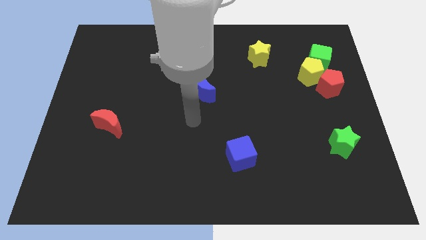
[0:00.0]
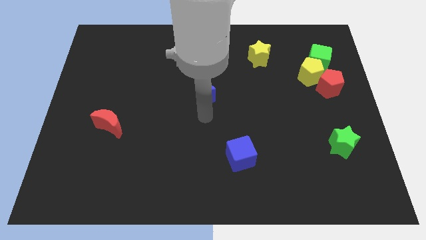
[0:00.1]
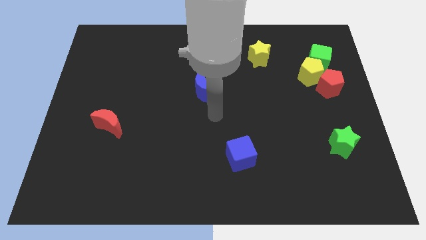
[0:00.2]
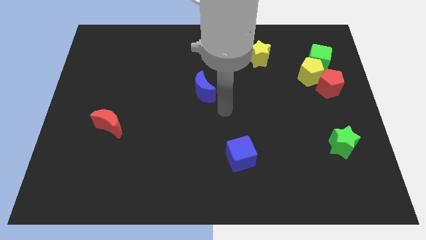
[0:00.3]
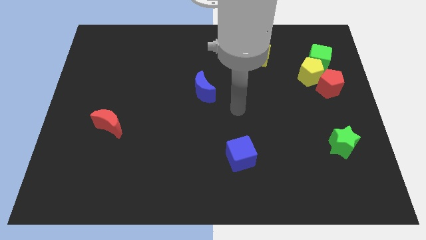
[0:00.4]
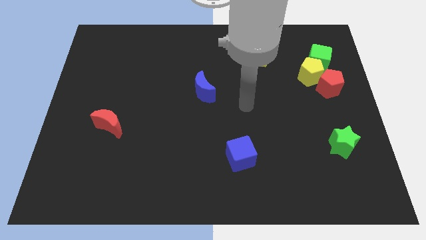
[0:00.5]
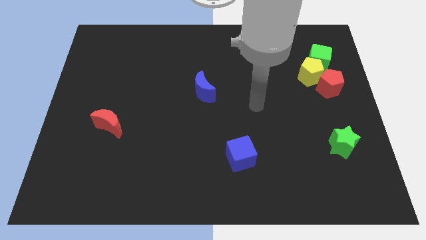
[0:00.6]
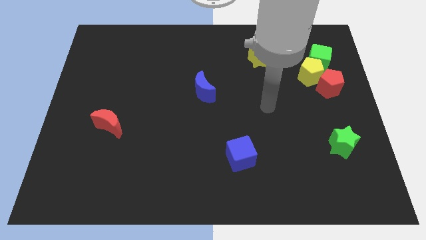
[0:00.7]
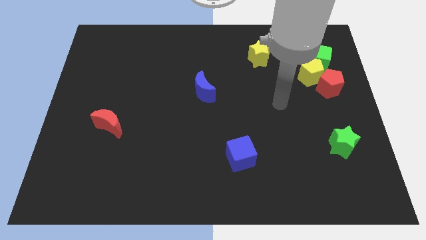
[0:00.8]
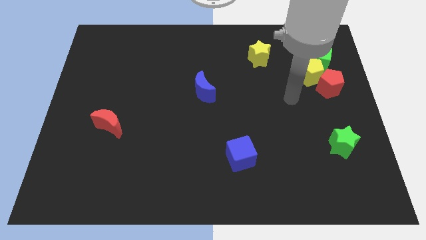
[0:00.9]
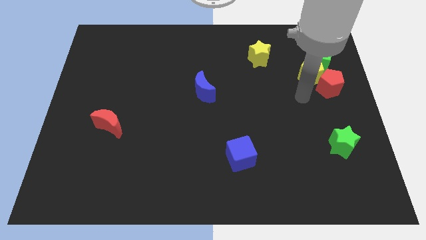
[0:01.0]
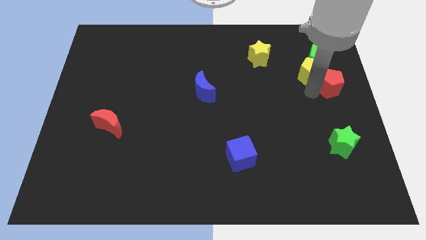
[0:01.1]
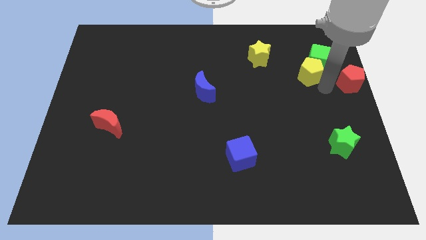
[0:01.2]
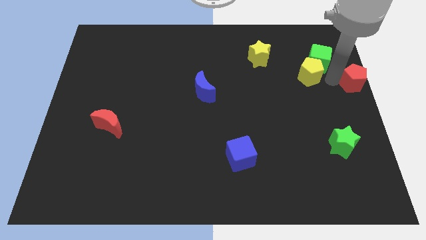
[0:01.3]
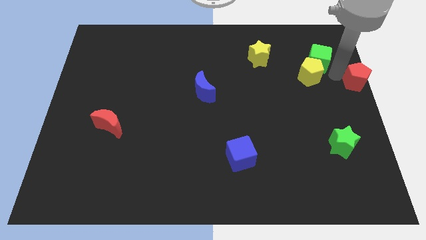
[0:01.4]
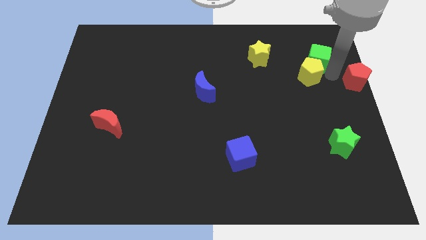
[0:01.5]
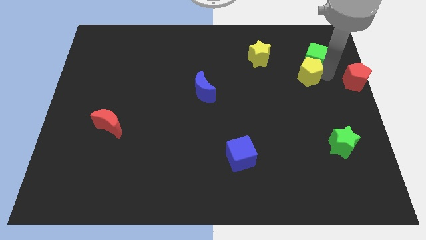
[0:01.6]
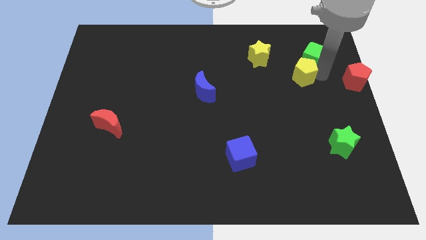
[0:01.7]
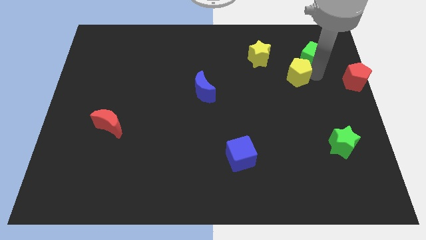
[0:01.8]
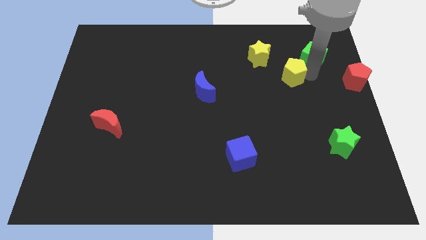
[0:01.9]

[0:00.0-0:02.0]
move the yellow pentagon away from the green cube and red pentagon

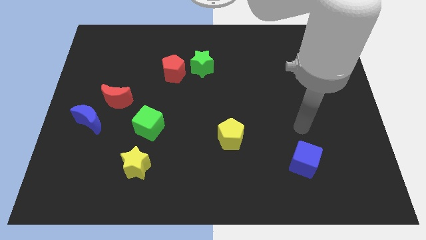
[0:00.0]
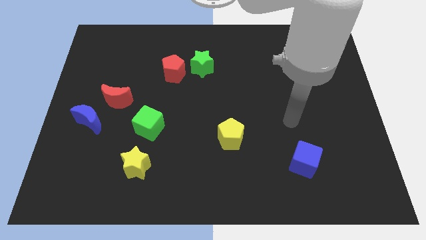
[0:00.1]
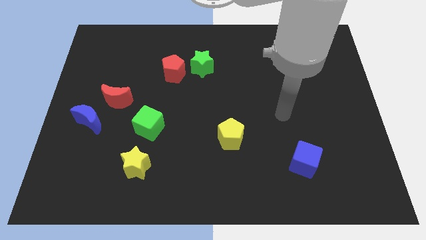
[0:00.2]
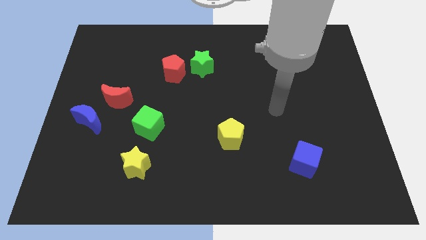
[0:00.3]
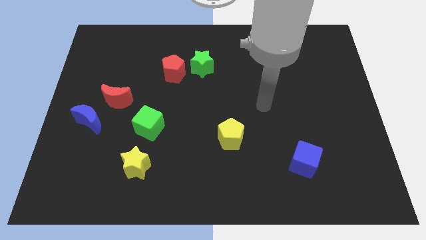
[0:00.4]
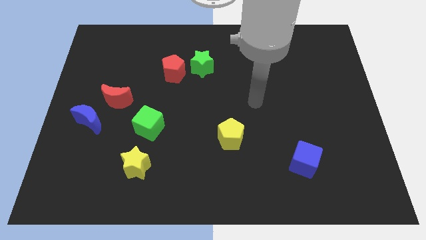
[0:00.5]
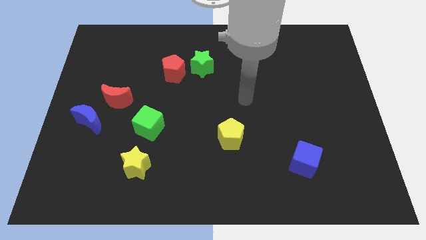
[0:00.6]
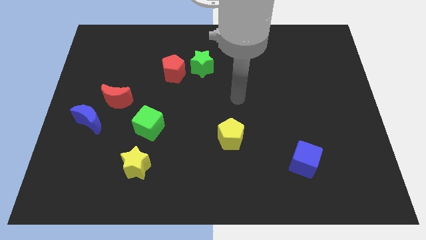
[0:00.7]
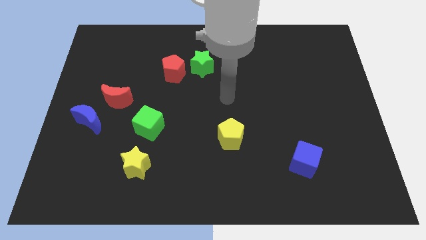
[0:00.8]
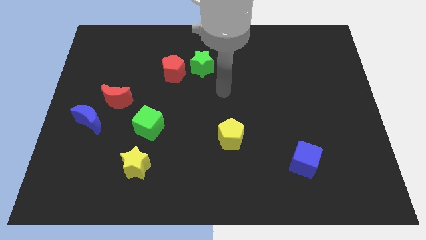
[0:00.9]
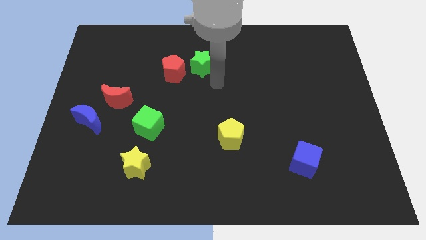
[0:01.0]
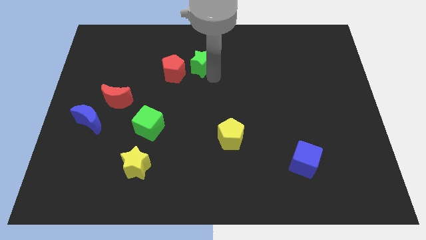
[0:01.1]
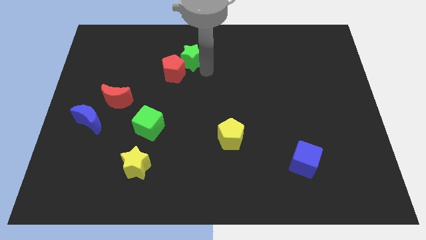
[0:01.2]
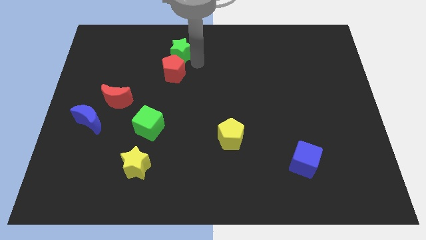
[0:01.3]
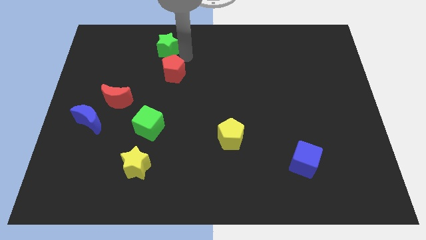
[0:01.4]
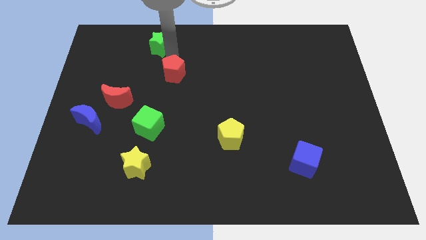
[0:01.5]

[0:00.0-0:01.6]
pull the red pentagon apart from the green star

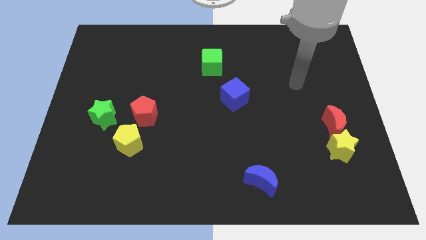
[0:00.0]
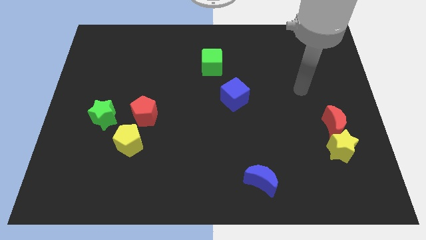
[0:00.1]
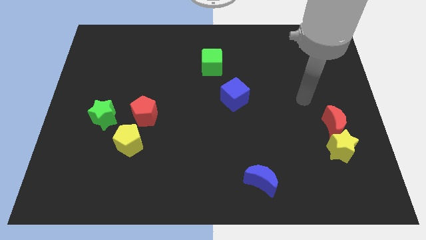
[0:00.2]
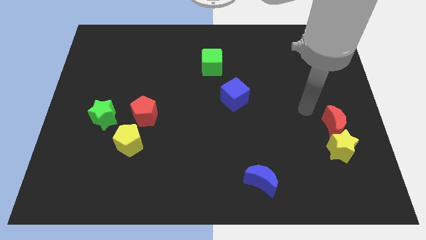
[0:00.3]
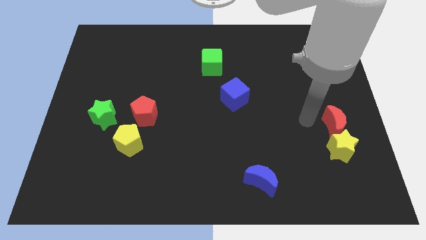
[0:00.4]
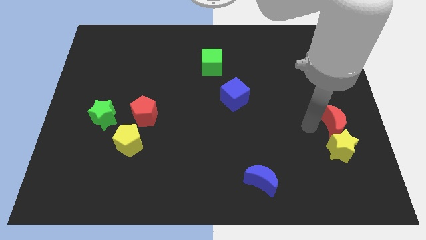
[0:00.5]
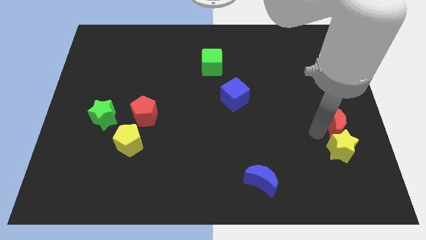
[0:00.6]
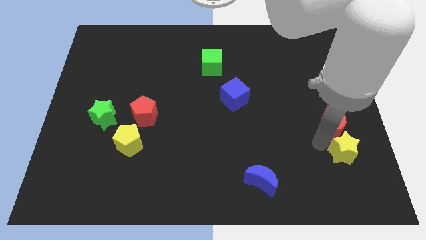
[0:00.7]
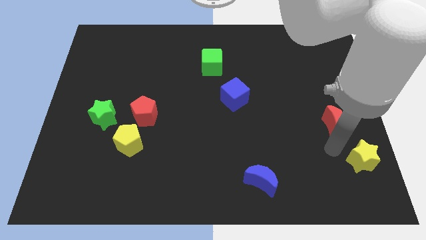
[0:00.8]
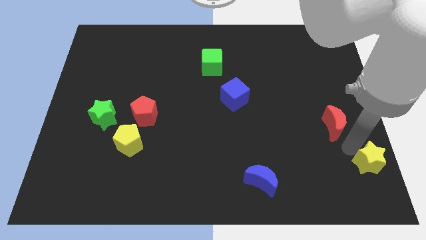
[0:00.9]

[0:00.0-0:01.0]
separate the red moon from the yellow star

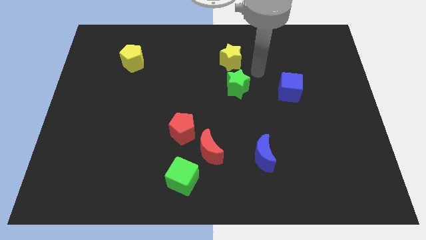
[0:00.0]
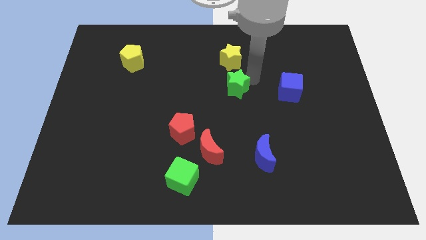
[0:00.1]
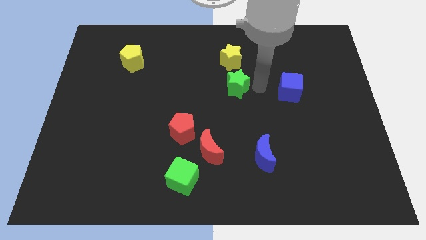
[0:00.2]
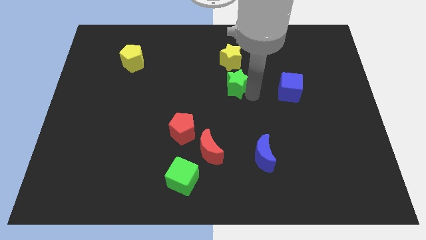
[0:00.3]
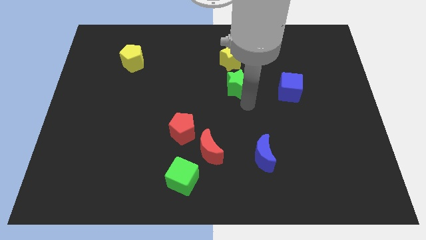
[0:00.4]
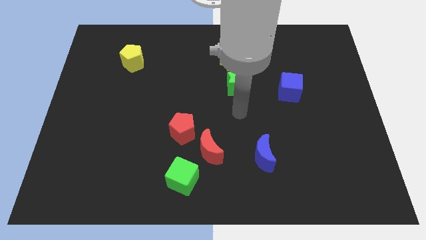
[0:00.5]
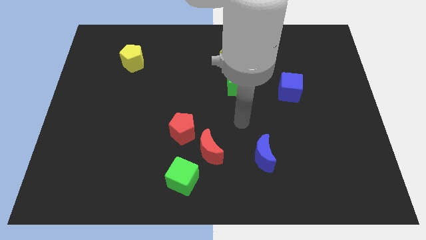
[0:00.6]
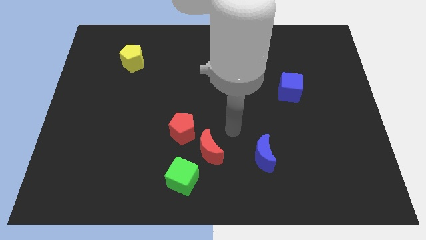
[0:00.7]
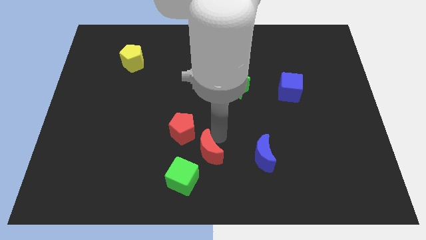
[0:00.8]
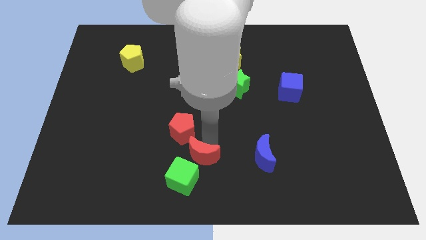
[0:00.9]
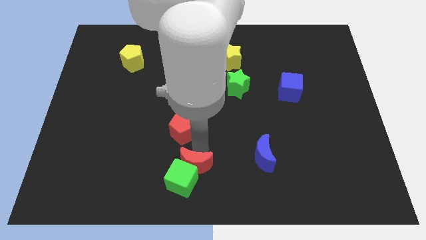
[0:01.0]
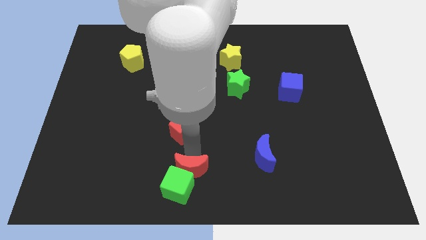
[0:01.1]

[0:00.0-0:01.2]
separate the red pentagon from the red moon

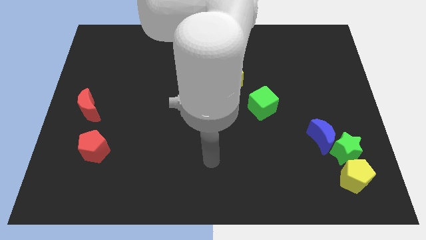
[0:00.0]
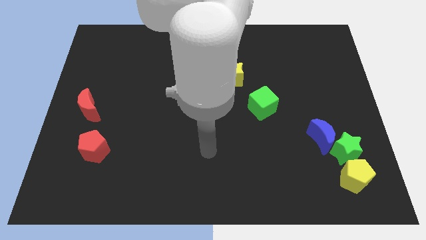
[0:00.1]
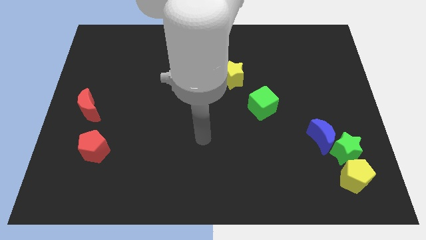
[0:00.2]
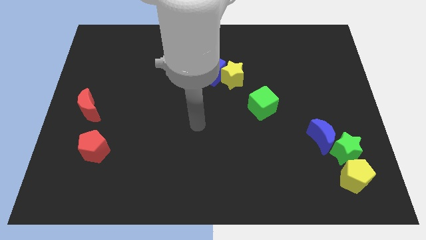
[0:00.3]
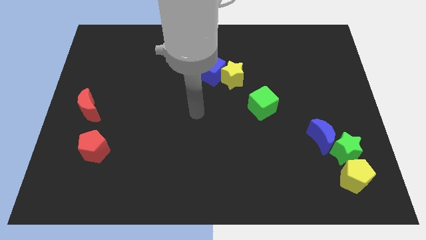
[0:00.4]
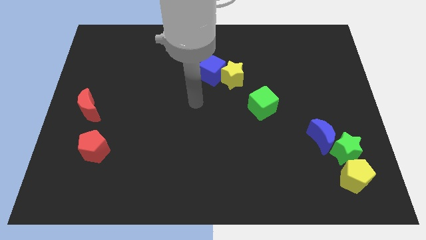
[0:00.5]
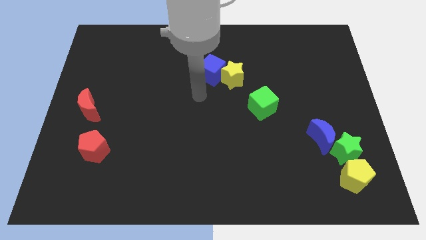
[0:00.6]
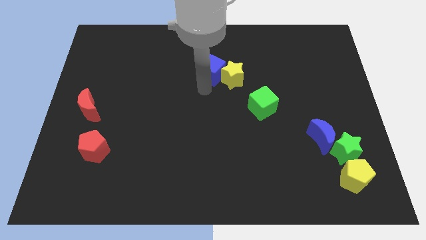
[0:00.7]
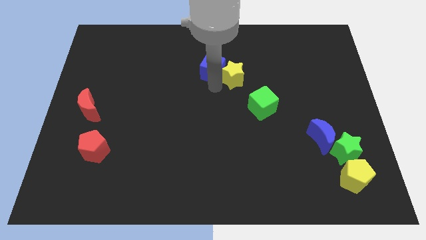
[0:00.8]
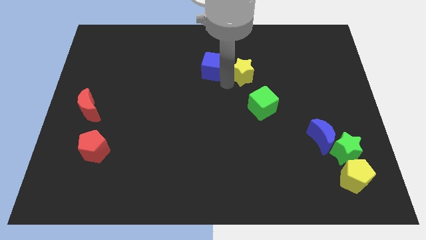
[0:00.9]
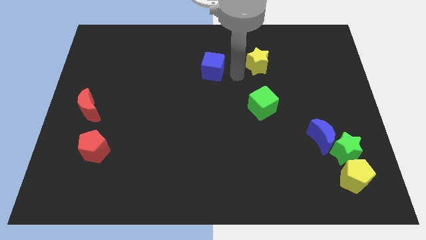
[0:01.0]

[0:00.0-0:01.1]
separate the blue cube from the yellow star

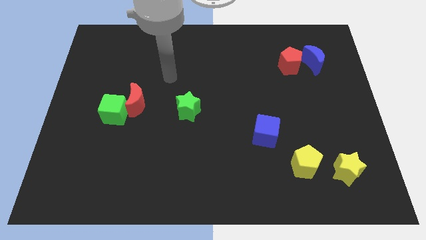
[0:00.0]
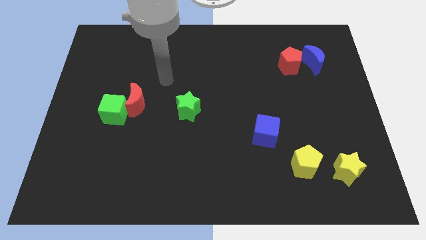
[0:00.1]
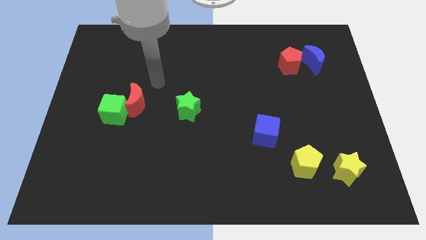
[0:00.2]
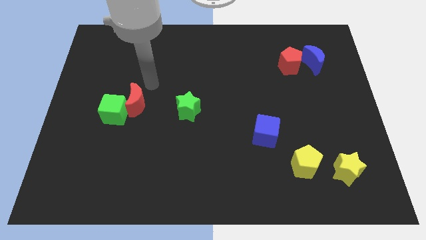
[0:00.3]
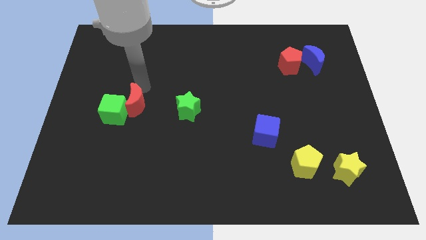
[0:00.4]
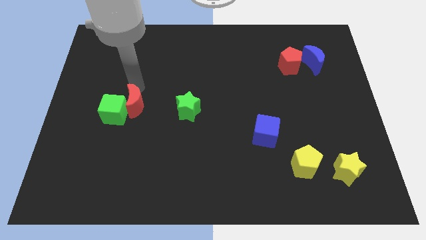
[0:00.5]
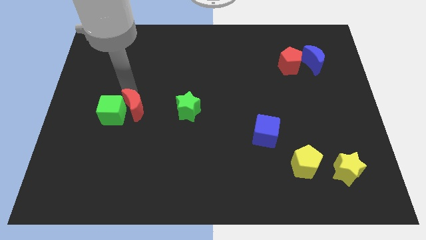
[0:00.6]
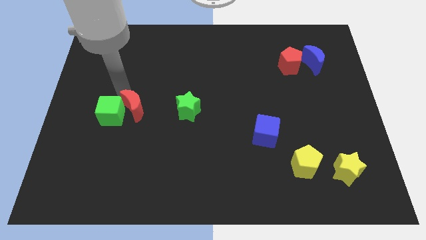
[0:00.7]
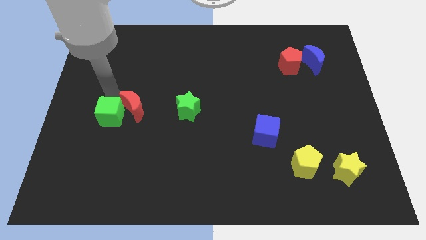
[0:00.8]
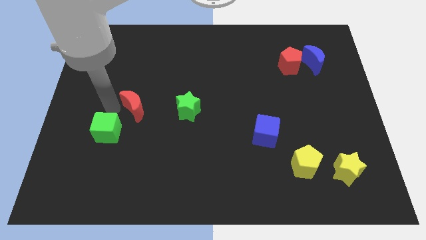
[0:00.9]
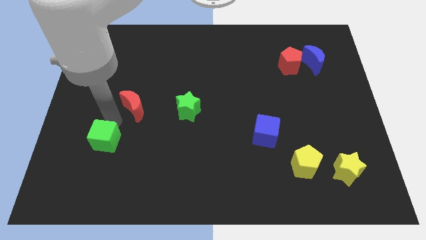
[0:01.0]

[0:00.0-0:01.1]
separate the red moon from the green cube

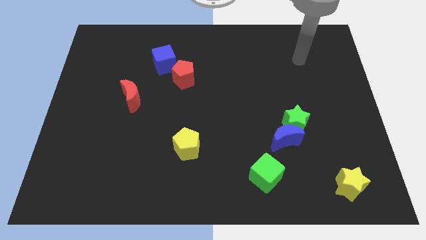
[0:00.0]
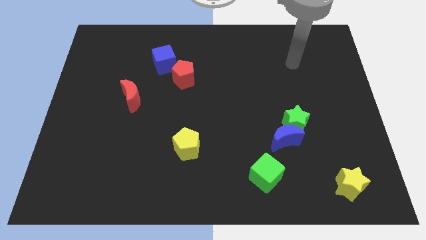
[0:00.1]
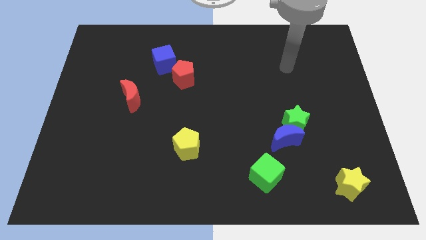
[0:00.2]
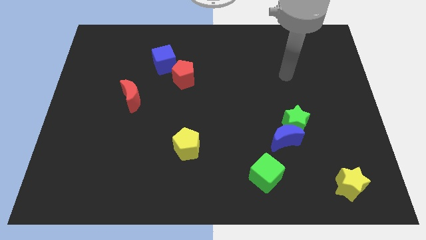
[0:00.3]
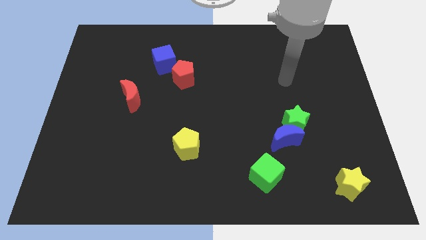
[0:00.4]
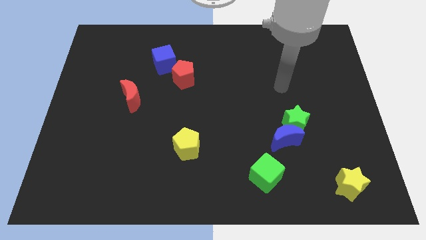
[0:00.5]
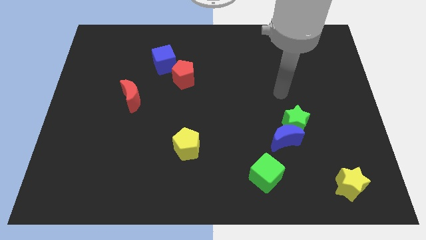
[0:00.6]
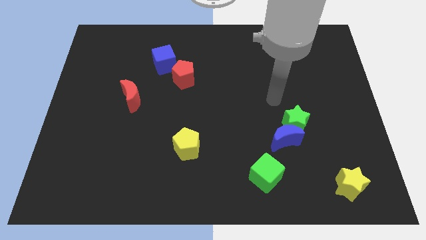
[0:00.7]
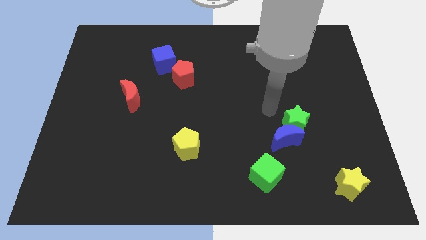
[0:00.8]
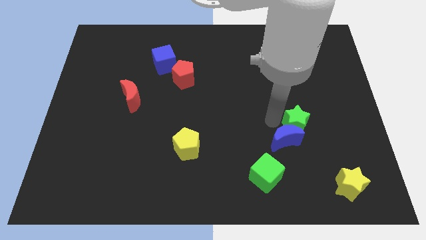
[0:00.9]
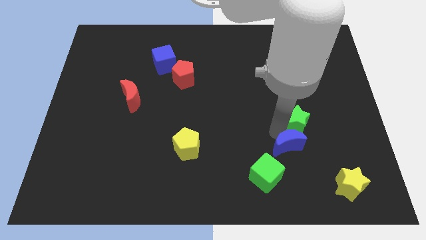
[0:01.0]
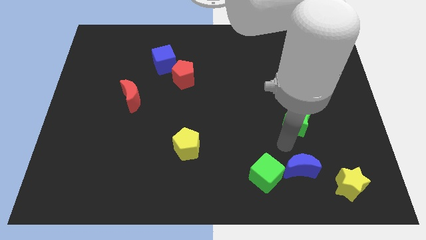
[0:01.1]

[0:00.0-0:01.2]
pull the green star apart from the blue moon

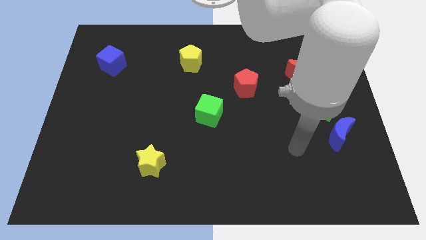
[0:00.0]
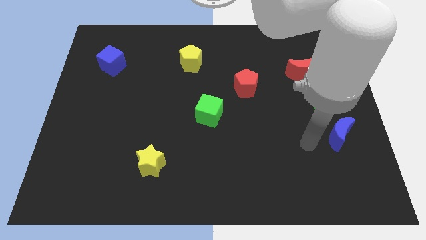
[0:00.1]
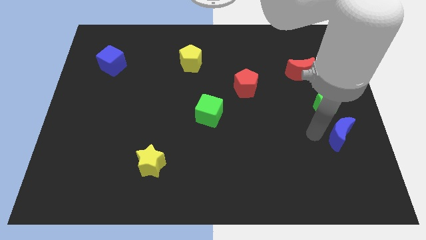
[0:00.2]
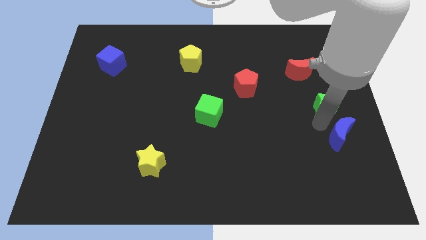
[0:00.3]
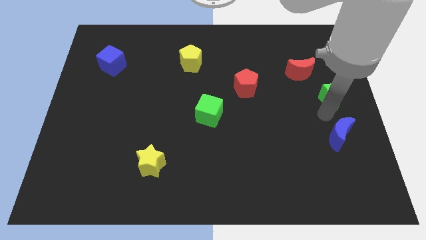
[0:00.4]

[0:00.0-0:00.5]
move the blue moon away from the green star
